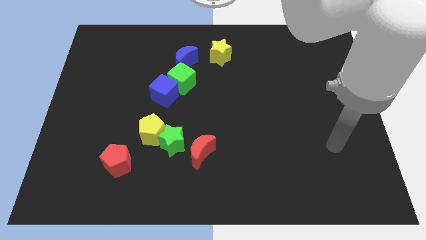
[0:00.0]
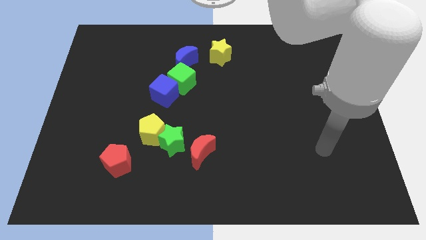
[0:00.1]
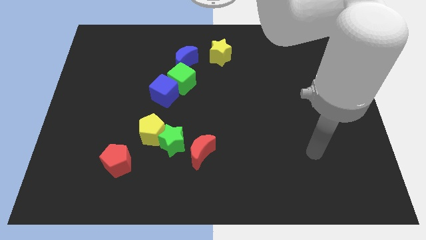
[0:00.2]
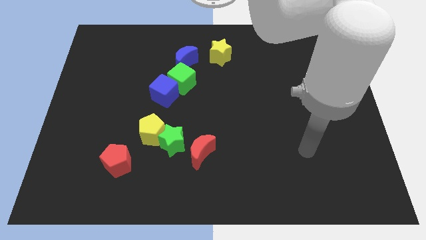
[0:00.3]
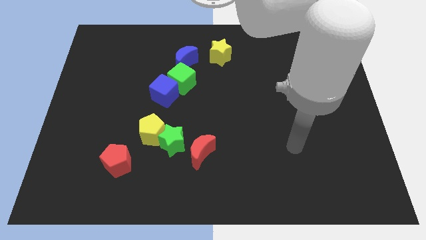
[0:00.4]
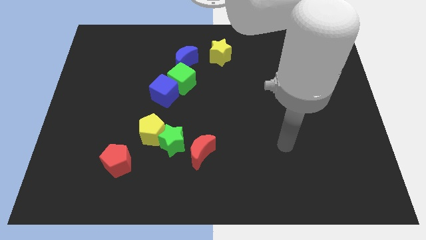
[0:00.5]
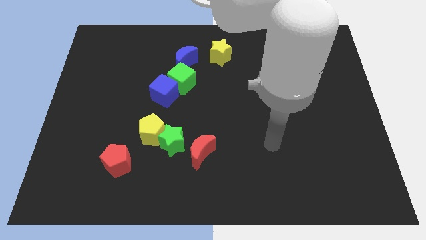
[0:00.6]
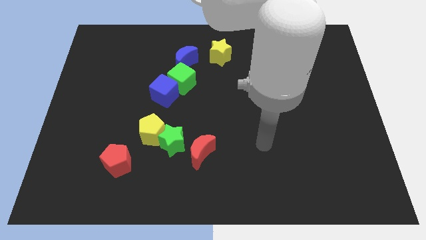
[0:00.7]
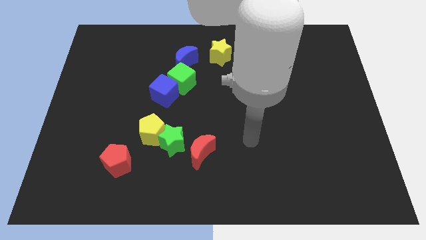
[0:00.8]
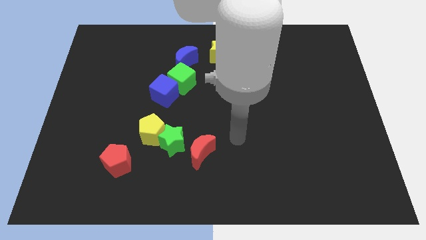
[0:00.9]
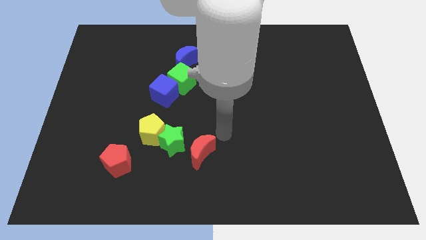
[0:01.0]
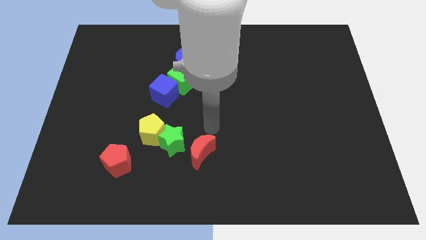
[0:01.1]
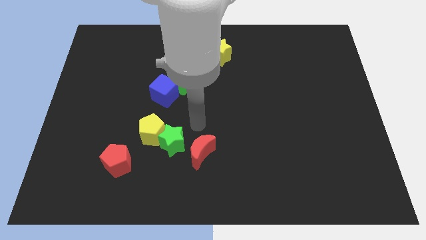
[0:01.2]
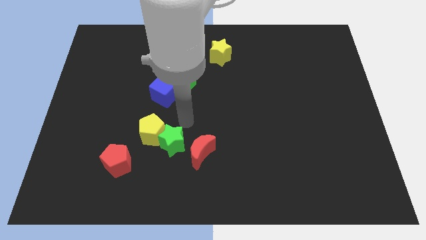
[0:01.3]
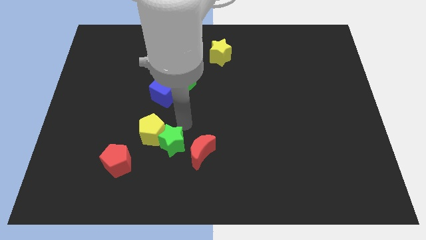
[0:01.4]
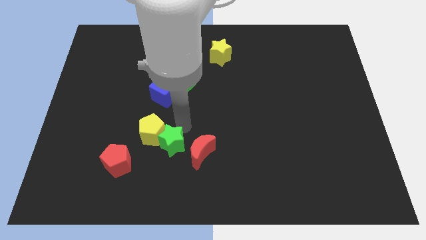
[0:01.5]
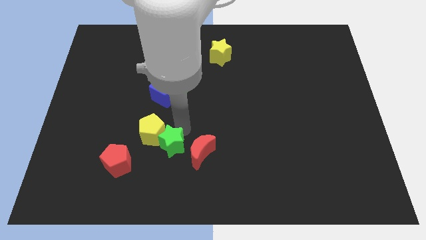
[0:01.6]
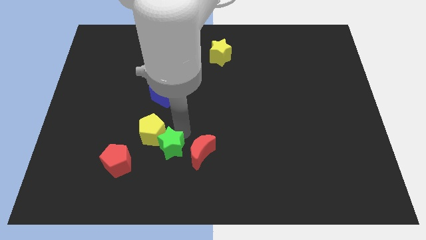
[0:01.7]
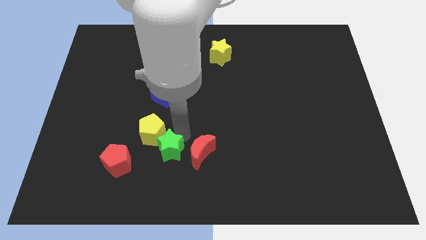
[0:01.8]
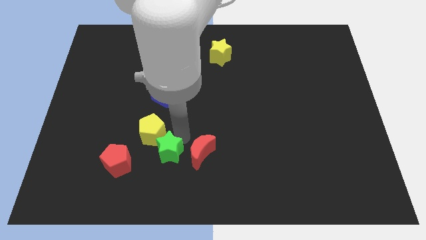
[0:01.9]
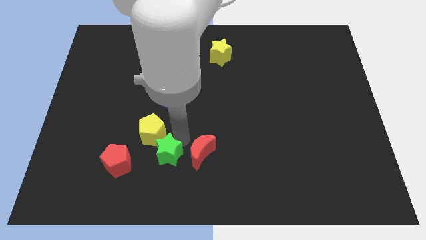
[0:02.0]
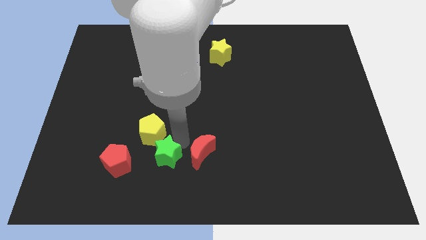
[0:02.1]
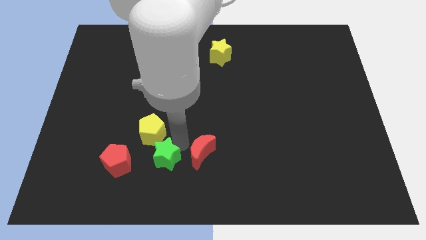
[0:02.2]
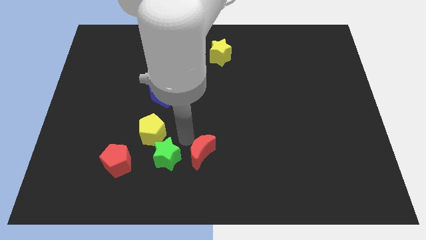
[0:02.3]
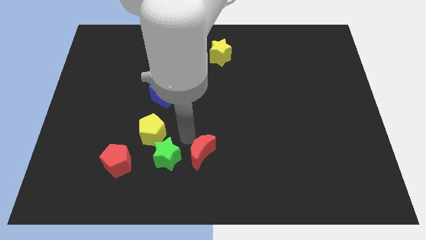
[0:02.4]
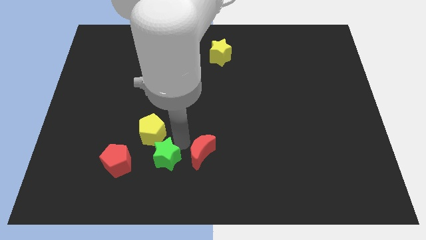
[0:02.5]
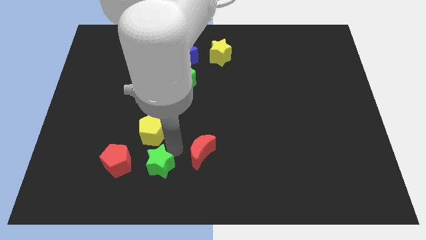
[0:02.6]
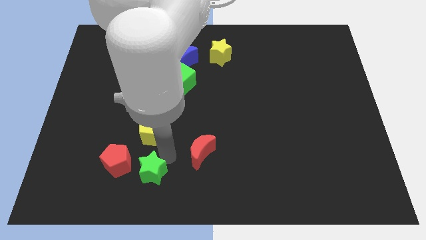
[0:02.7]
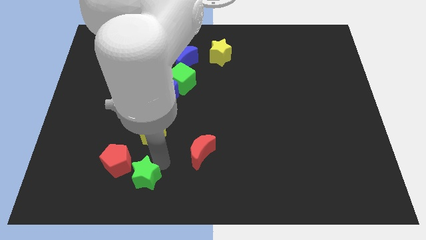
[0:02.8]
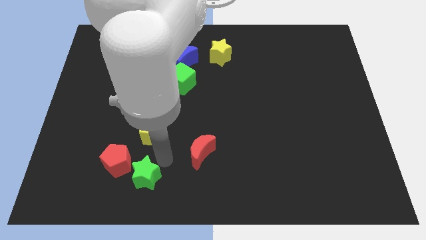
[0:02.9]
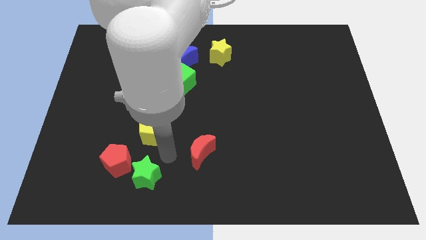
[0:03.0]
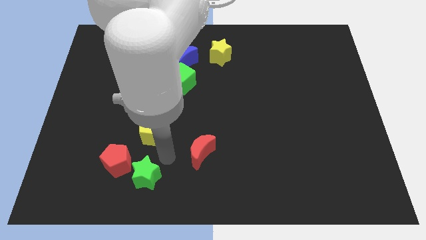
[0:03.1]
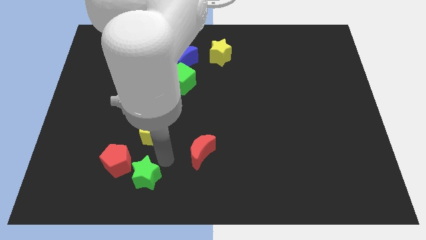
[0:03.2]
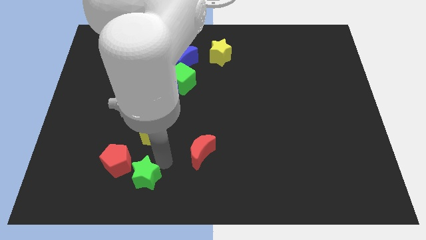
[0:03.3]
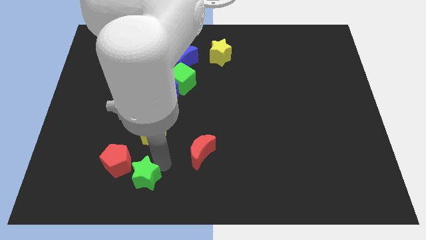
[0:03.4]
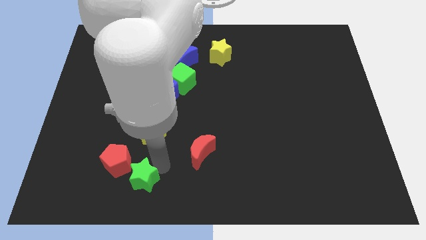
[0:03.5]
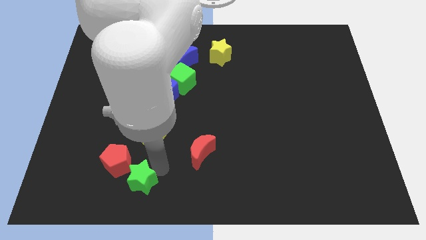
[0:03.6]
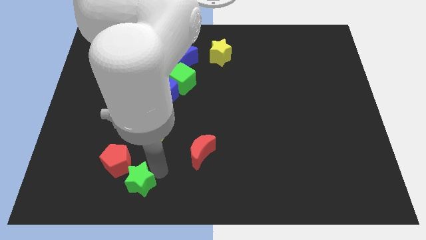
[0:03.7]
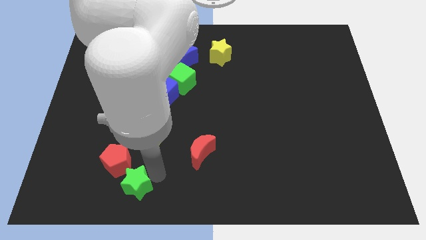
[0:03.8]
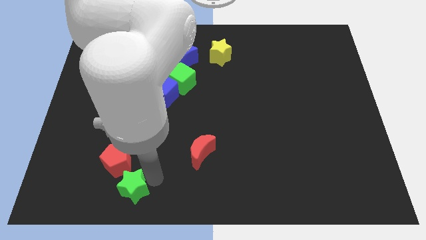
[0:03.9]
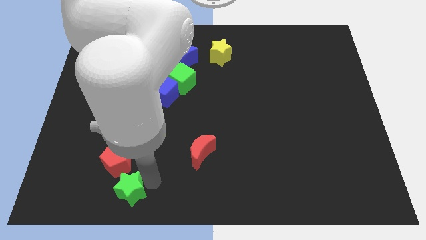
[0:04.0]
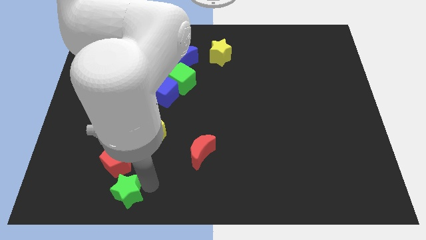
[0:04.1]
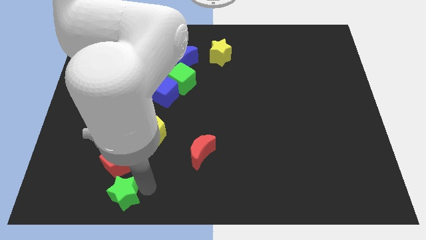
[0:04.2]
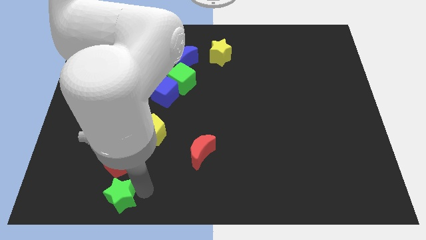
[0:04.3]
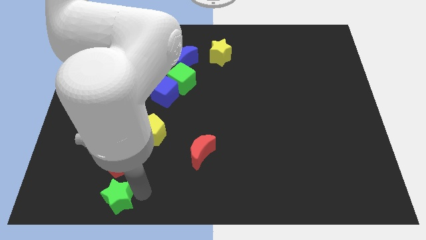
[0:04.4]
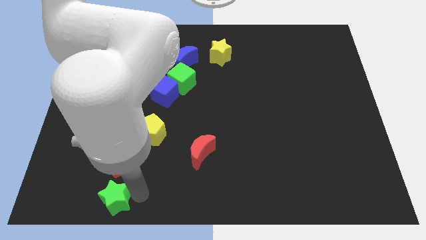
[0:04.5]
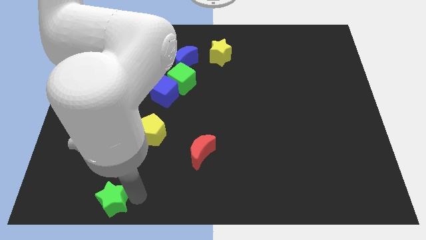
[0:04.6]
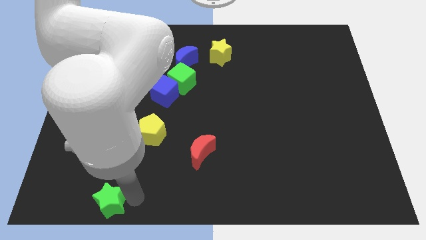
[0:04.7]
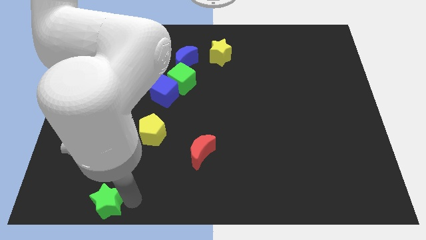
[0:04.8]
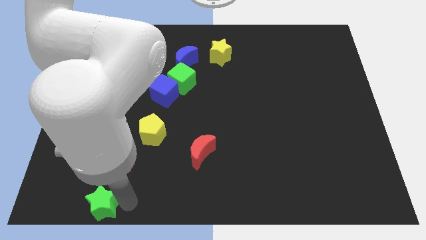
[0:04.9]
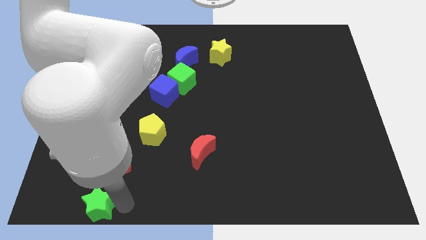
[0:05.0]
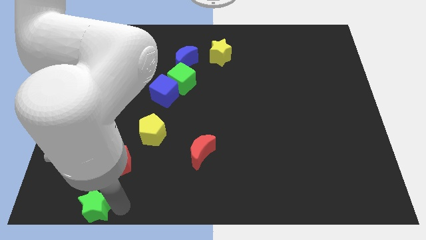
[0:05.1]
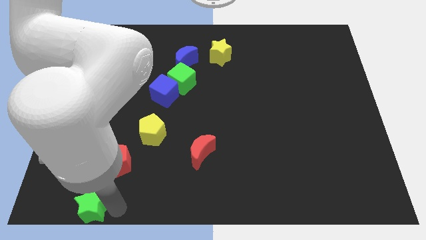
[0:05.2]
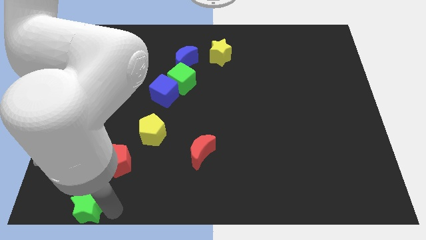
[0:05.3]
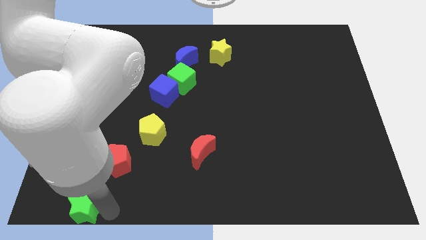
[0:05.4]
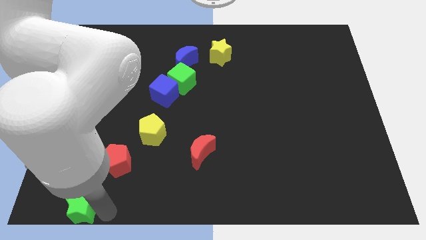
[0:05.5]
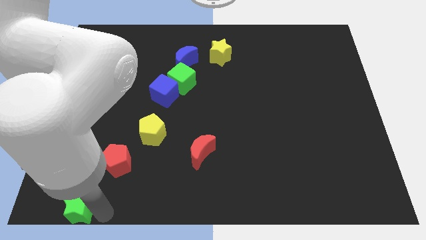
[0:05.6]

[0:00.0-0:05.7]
put the green star to the bottom left of the board
